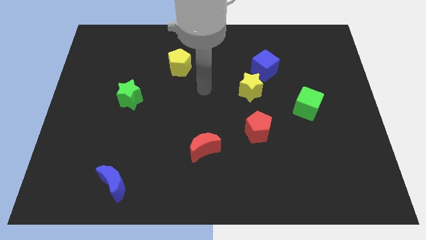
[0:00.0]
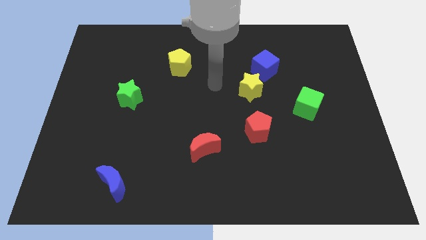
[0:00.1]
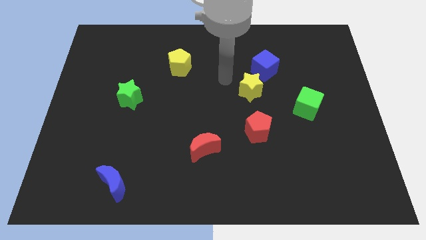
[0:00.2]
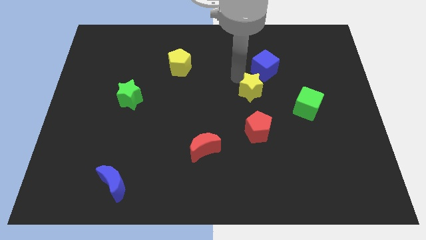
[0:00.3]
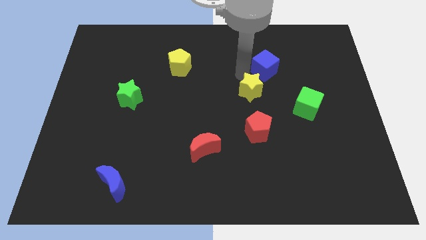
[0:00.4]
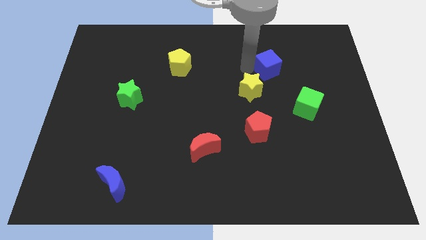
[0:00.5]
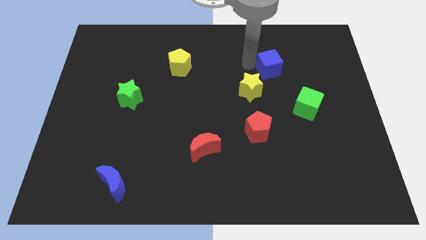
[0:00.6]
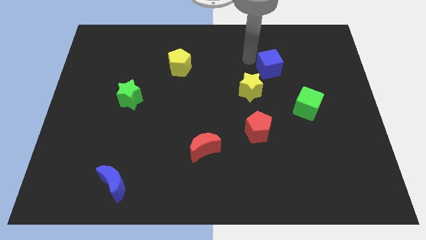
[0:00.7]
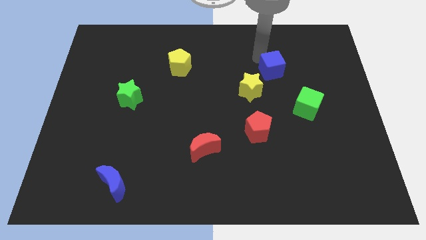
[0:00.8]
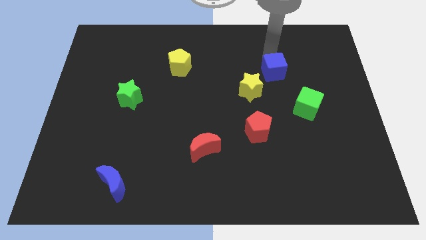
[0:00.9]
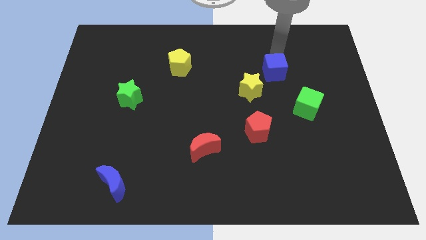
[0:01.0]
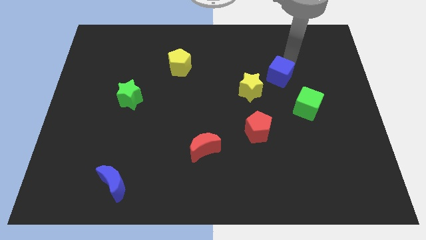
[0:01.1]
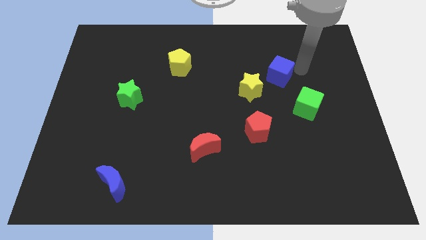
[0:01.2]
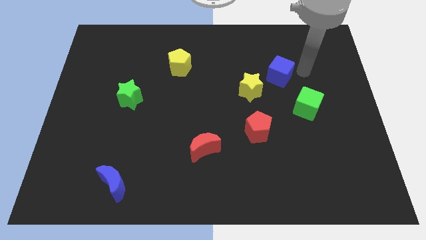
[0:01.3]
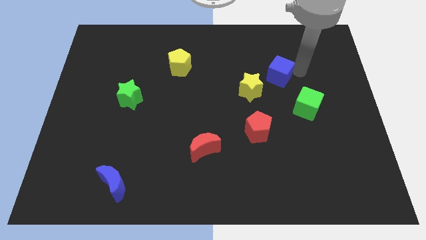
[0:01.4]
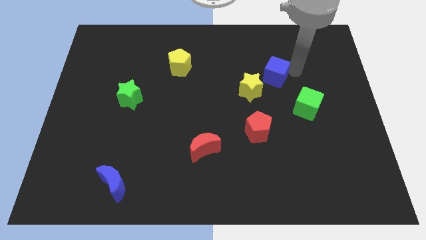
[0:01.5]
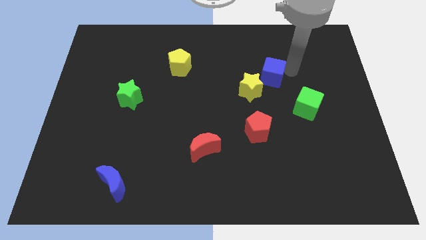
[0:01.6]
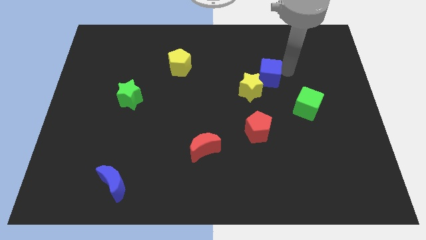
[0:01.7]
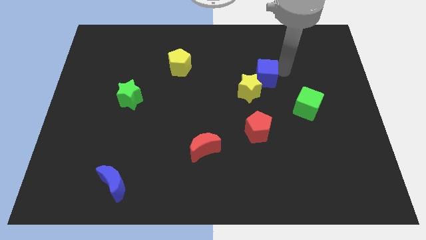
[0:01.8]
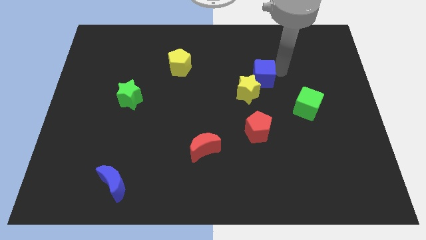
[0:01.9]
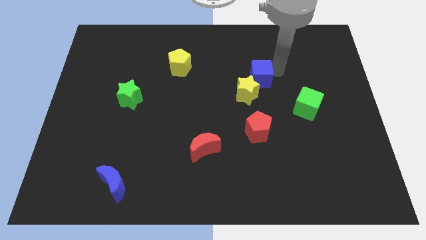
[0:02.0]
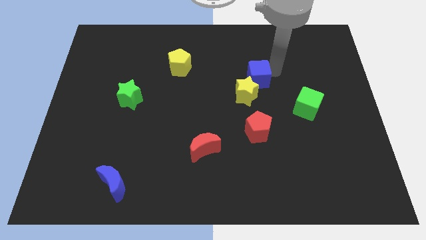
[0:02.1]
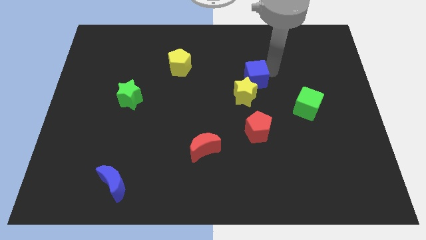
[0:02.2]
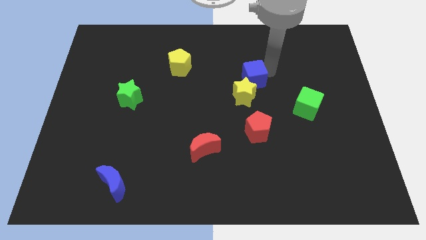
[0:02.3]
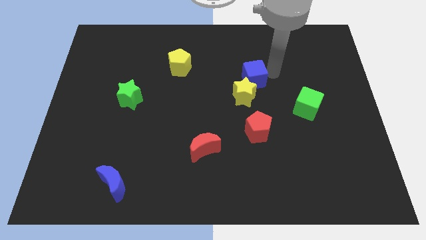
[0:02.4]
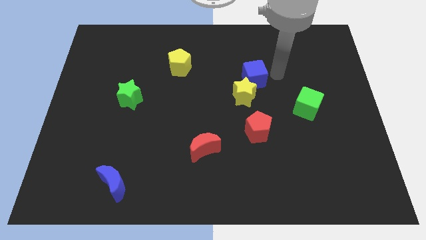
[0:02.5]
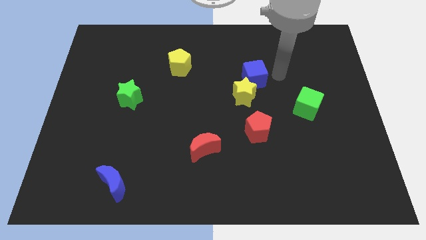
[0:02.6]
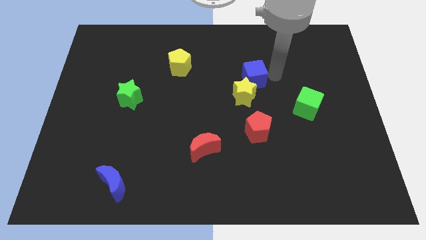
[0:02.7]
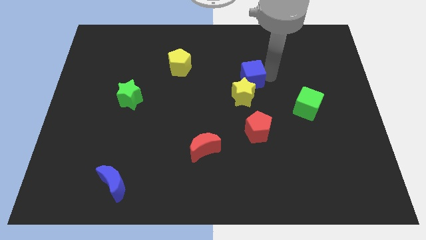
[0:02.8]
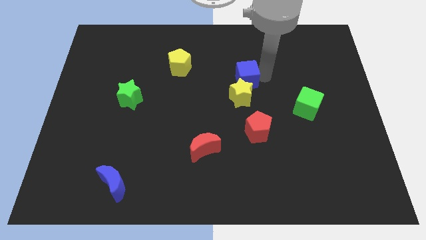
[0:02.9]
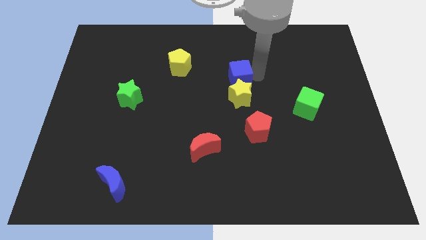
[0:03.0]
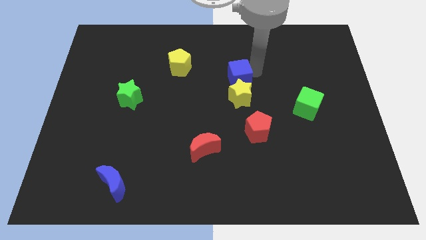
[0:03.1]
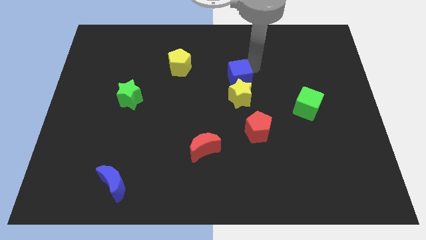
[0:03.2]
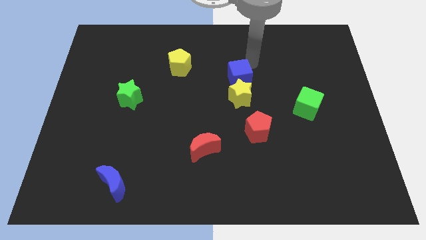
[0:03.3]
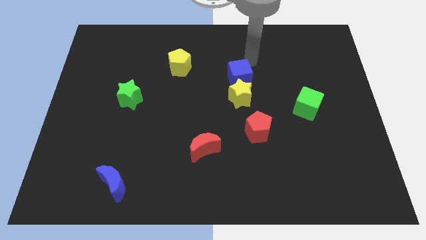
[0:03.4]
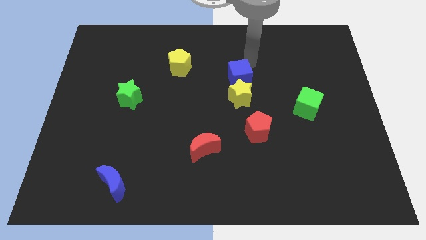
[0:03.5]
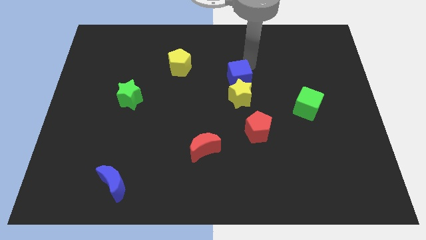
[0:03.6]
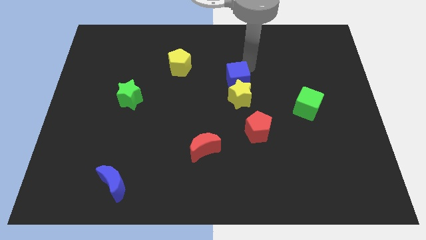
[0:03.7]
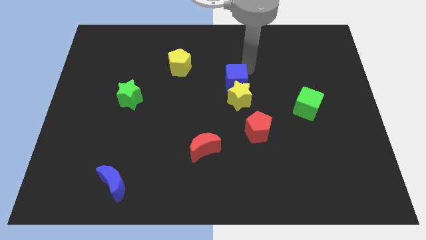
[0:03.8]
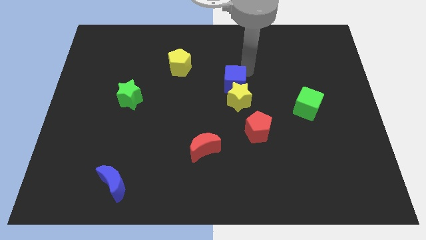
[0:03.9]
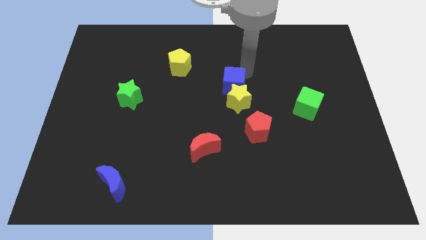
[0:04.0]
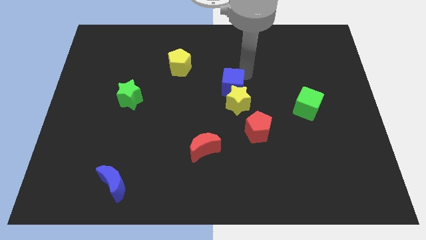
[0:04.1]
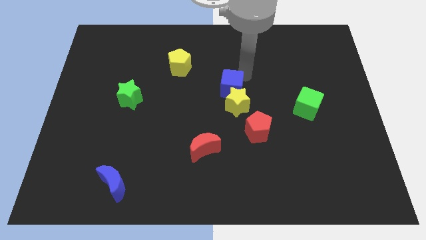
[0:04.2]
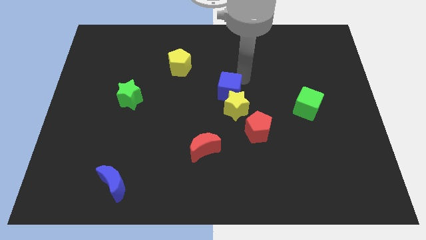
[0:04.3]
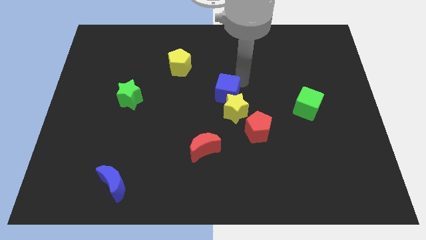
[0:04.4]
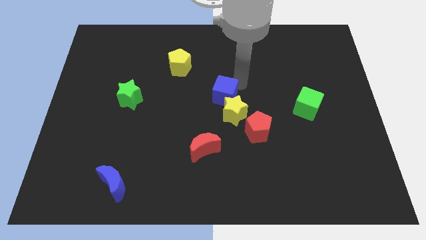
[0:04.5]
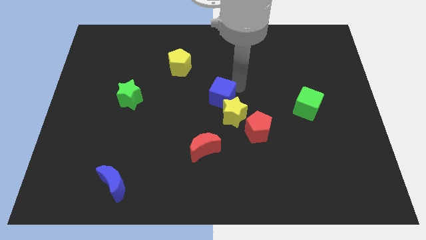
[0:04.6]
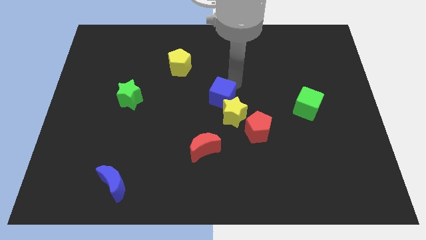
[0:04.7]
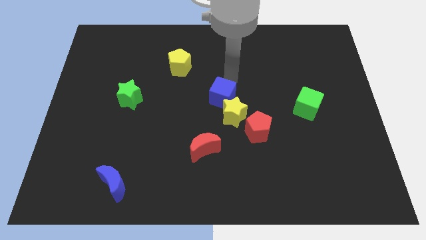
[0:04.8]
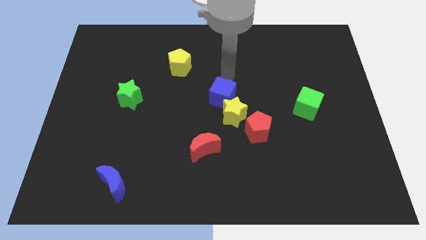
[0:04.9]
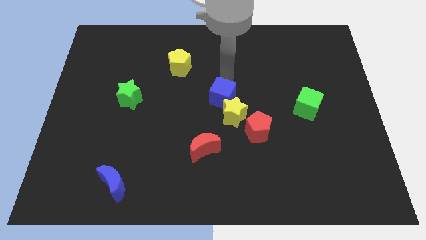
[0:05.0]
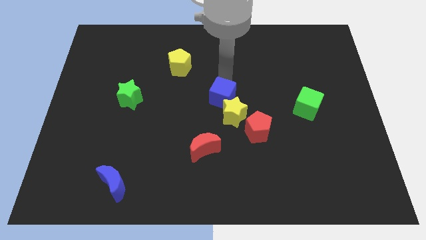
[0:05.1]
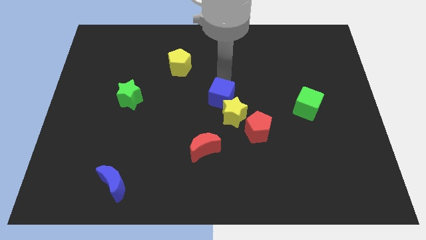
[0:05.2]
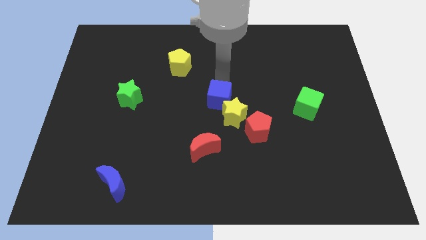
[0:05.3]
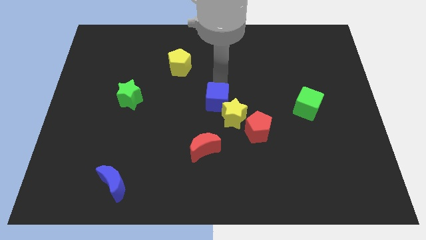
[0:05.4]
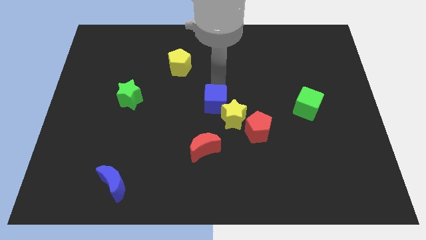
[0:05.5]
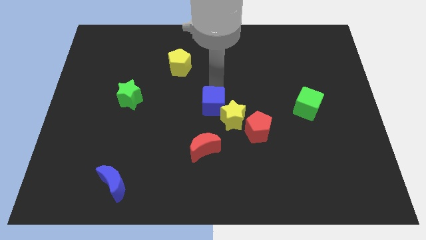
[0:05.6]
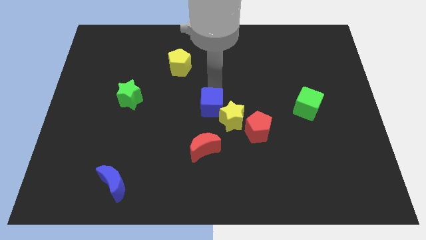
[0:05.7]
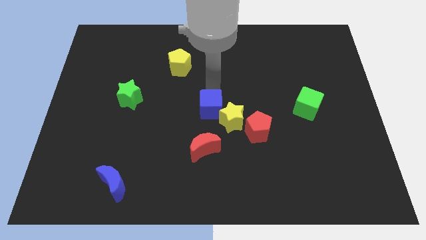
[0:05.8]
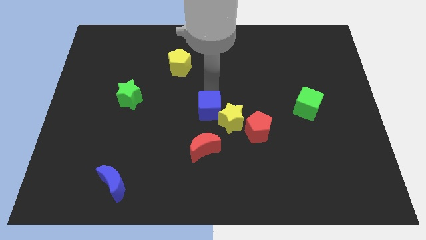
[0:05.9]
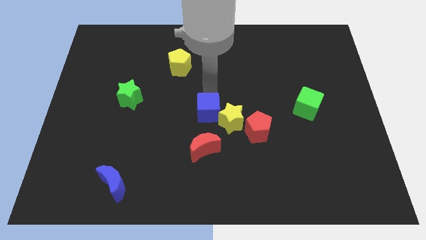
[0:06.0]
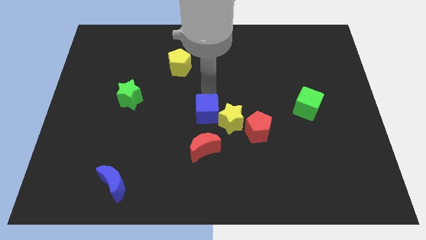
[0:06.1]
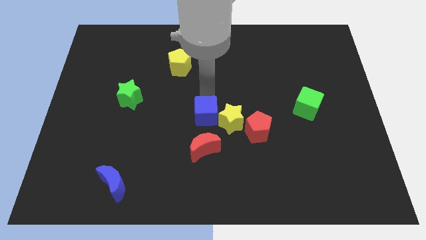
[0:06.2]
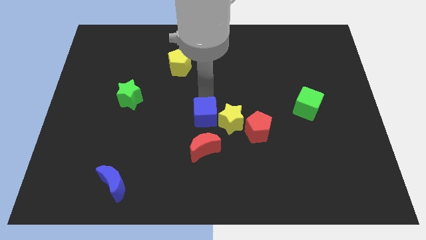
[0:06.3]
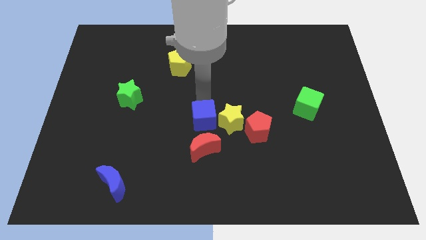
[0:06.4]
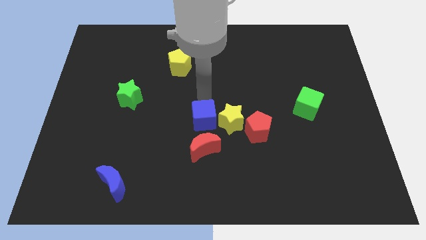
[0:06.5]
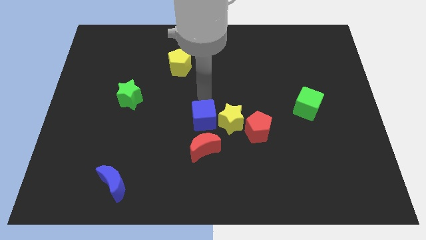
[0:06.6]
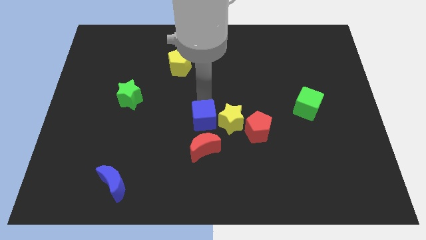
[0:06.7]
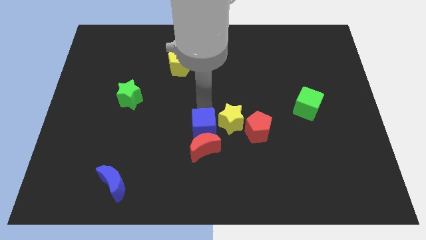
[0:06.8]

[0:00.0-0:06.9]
put the blue cube next to the red moon
